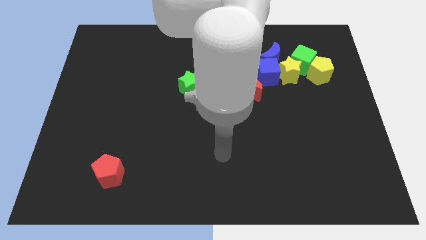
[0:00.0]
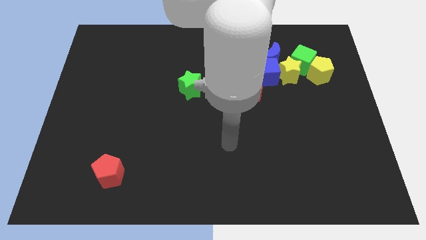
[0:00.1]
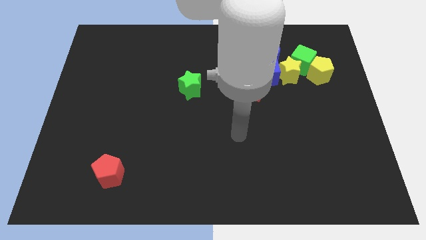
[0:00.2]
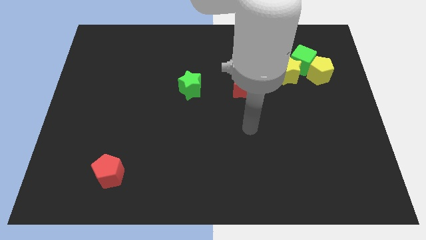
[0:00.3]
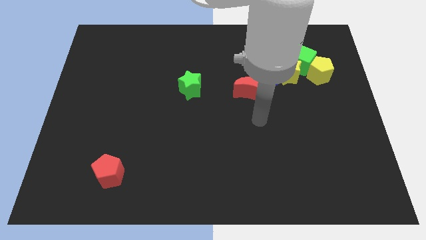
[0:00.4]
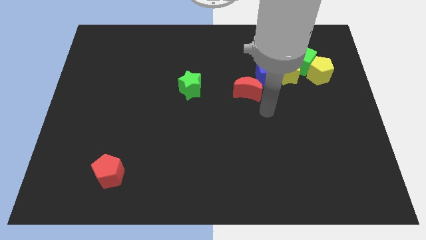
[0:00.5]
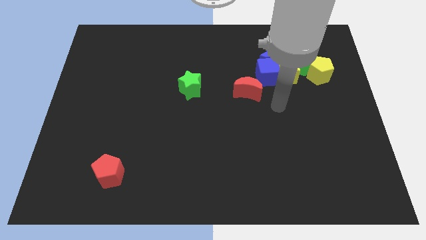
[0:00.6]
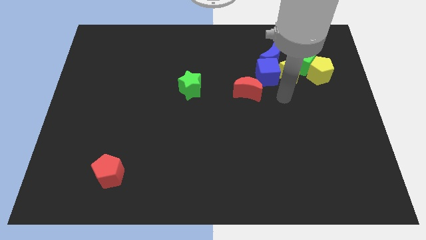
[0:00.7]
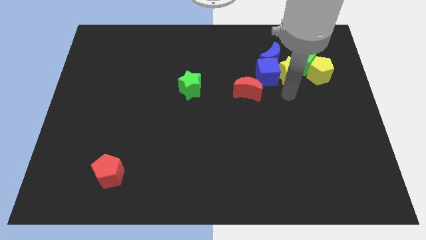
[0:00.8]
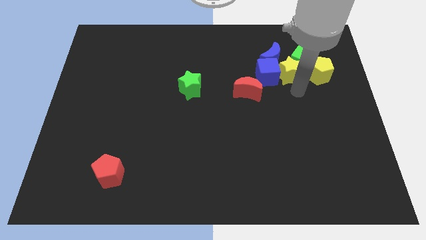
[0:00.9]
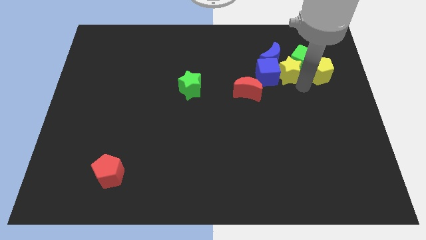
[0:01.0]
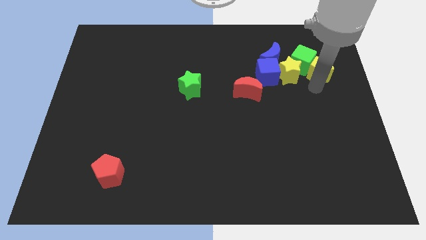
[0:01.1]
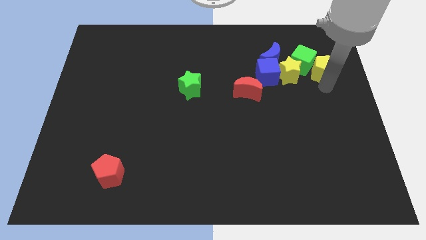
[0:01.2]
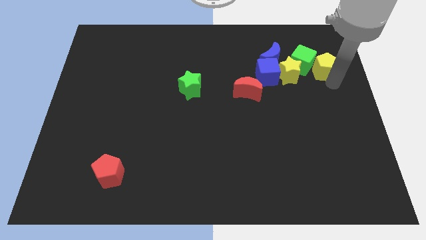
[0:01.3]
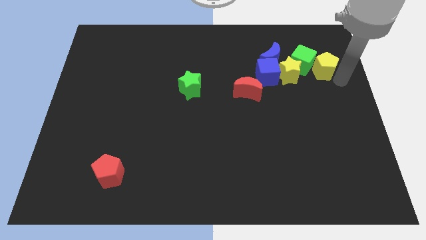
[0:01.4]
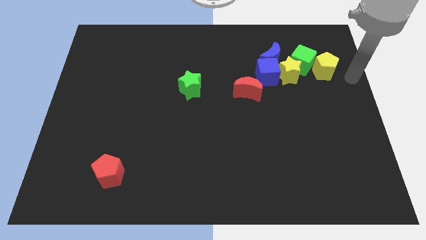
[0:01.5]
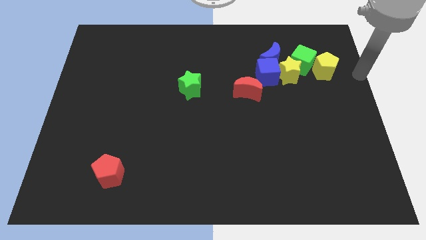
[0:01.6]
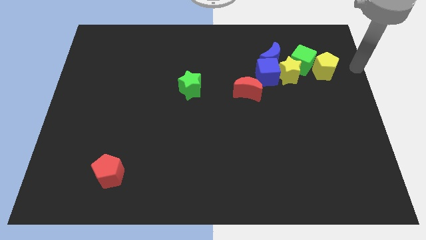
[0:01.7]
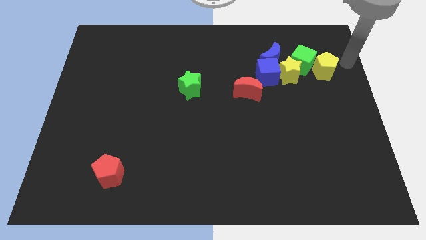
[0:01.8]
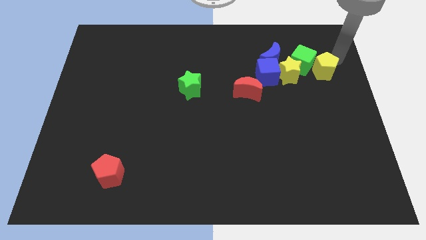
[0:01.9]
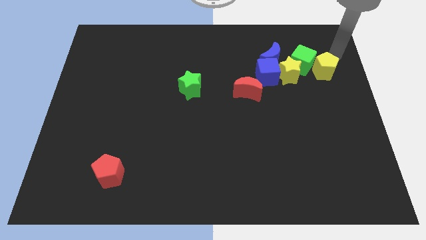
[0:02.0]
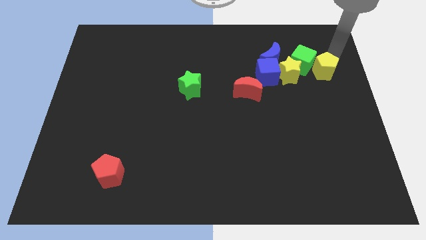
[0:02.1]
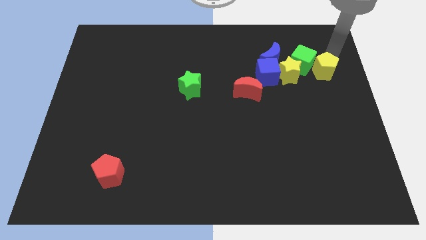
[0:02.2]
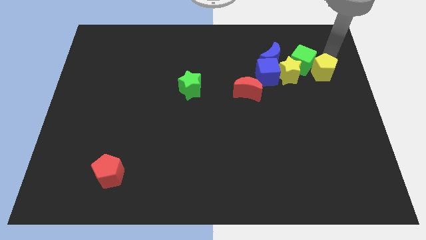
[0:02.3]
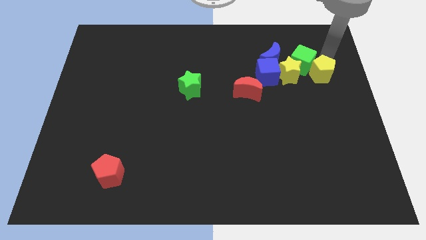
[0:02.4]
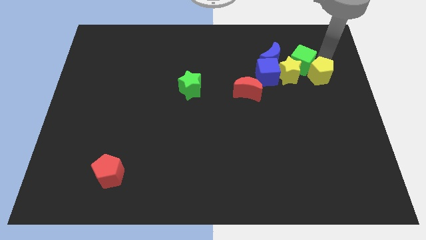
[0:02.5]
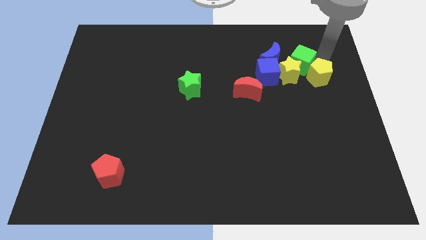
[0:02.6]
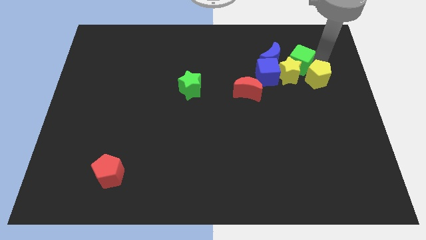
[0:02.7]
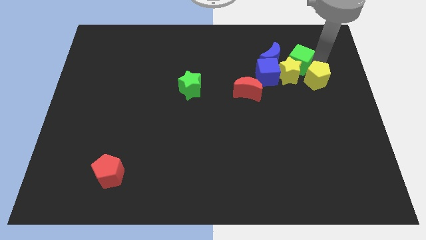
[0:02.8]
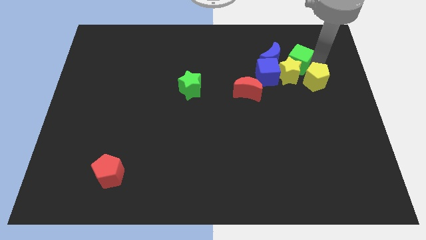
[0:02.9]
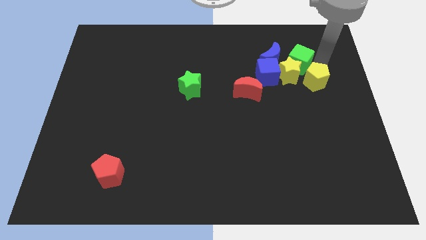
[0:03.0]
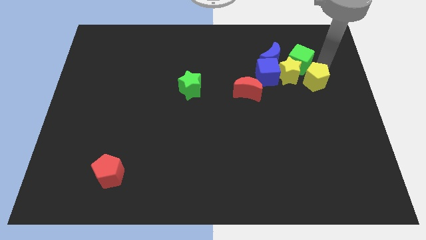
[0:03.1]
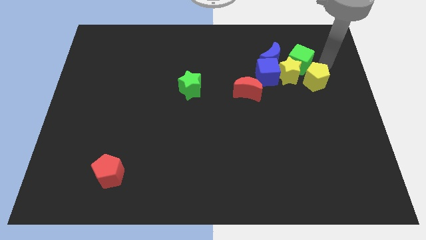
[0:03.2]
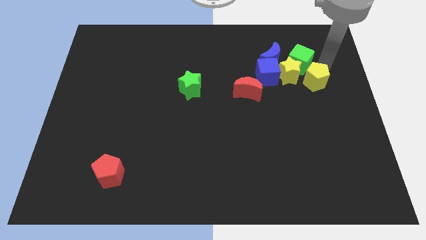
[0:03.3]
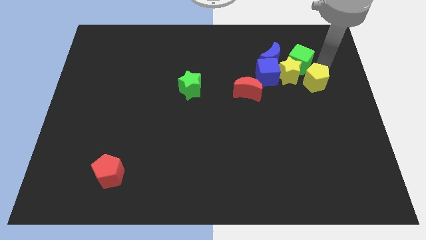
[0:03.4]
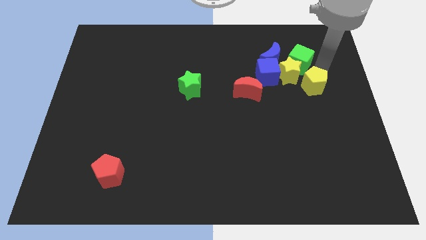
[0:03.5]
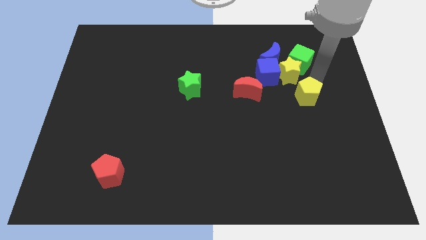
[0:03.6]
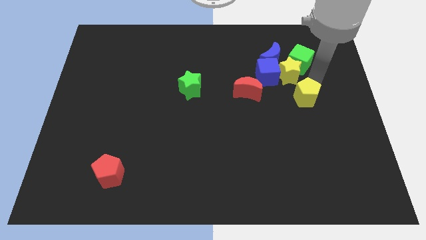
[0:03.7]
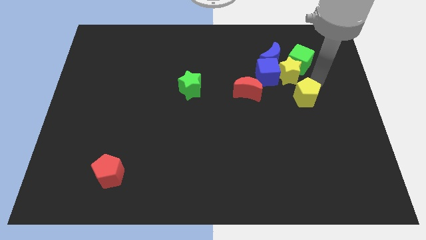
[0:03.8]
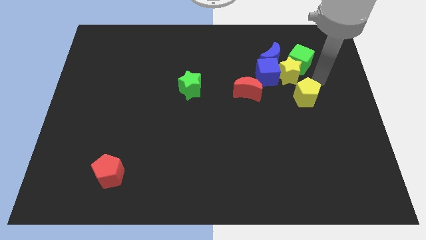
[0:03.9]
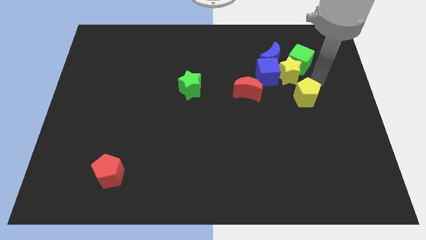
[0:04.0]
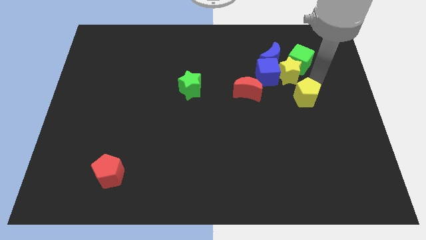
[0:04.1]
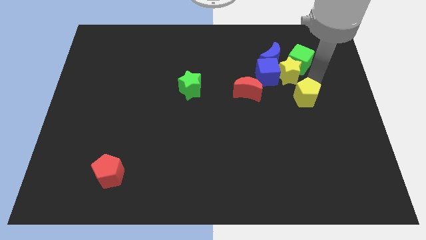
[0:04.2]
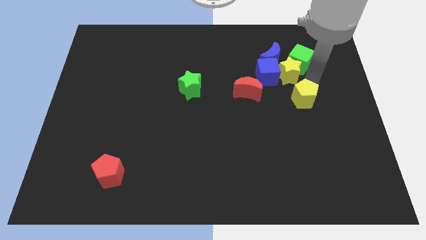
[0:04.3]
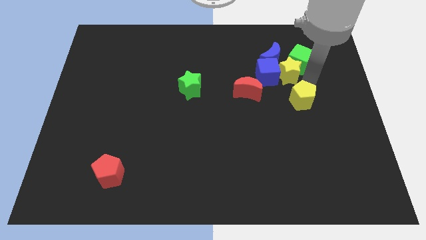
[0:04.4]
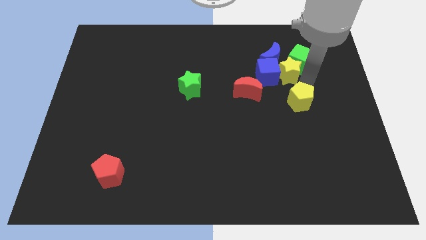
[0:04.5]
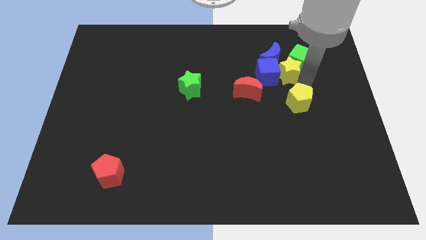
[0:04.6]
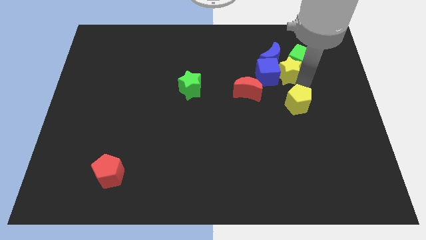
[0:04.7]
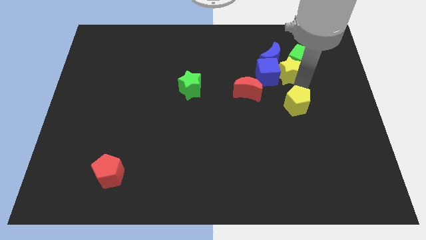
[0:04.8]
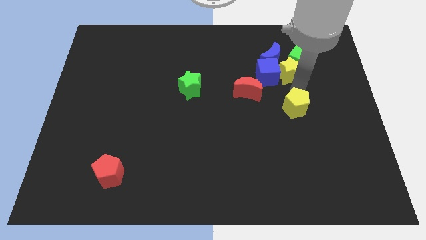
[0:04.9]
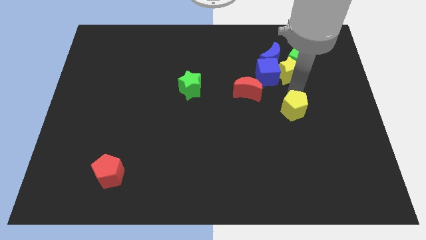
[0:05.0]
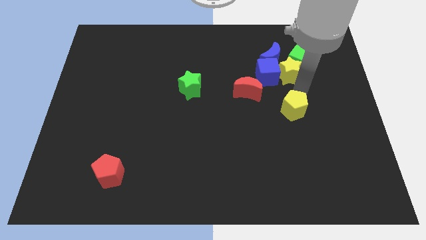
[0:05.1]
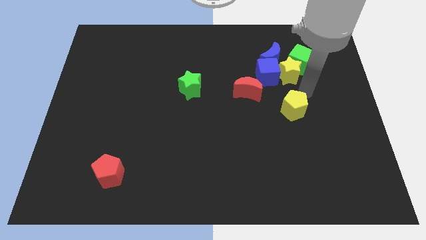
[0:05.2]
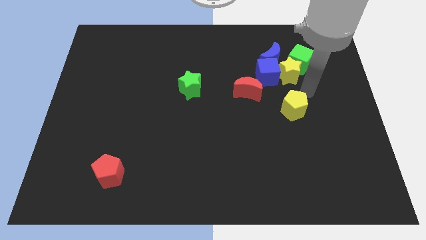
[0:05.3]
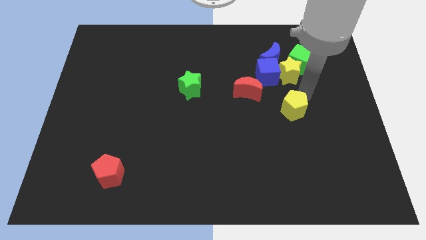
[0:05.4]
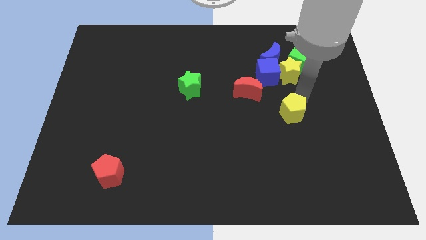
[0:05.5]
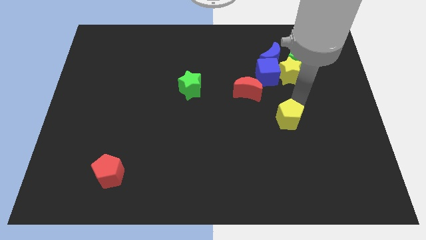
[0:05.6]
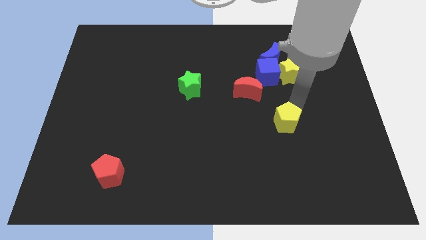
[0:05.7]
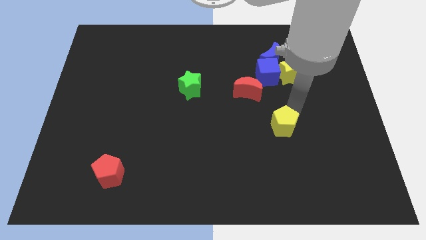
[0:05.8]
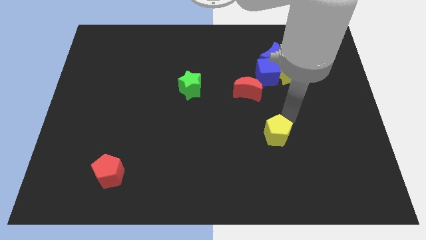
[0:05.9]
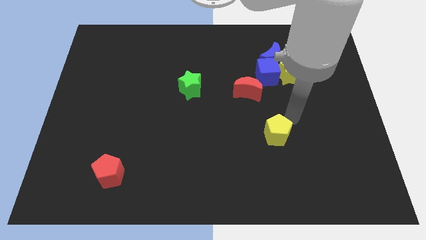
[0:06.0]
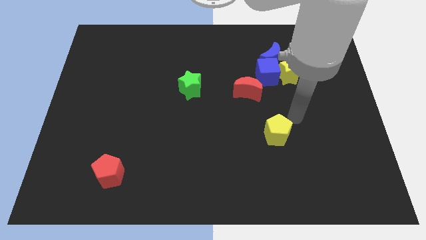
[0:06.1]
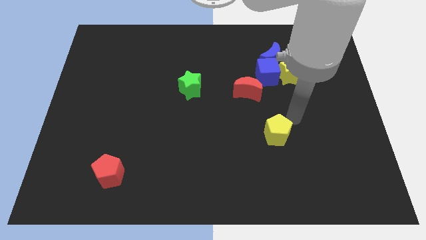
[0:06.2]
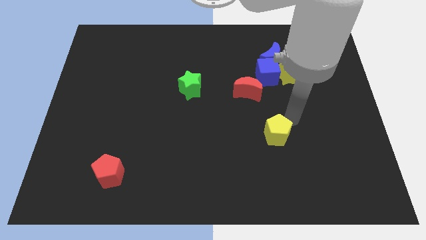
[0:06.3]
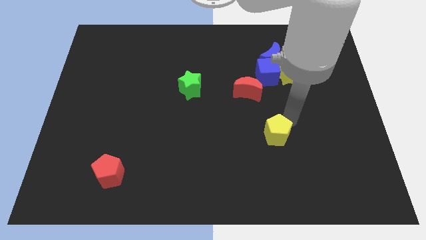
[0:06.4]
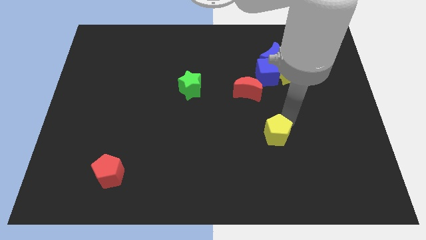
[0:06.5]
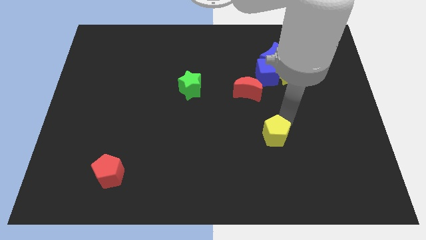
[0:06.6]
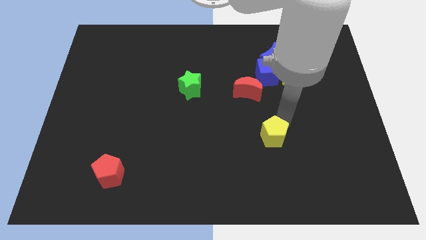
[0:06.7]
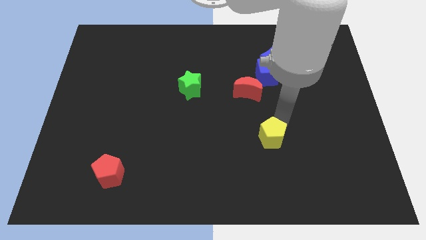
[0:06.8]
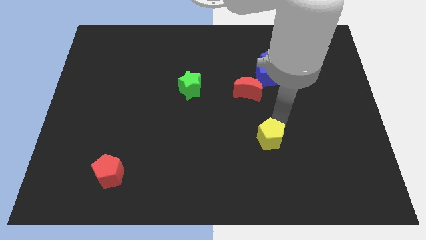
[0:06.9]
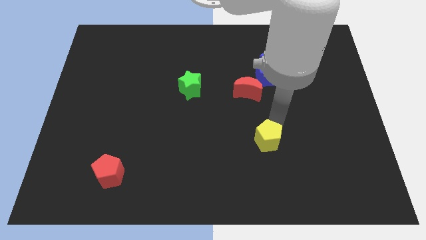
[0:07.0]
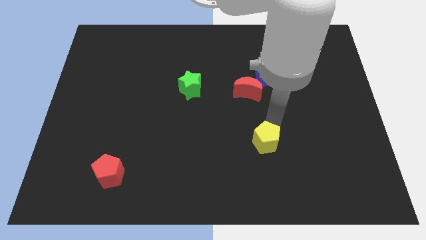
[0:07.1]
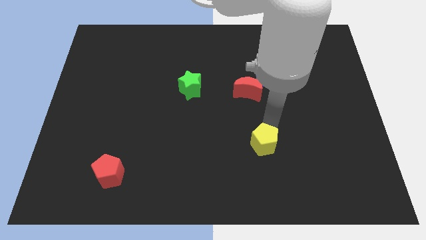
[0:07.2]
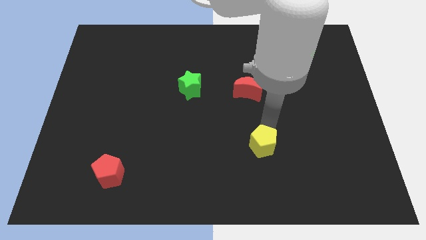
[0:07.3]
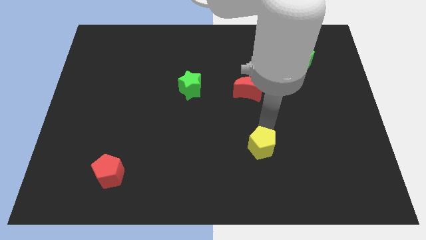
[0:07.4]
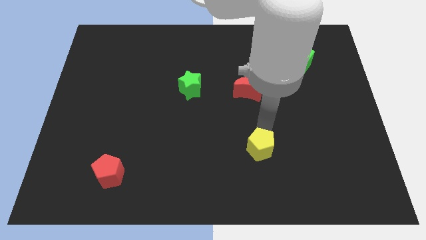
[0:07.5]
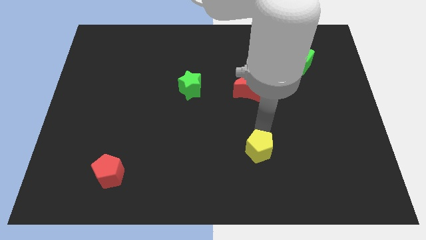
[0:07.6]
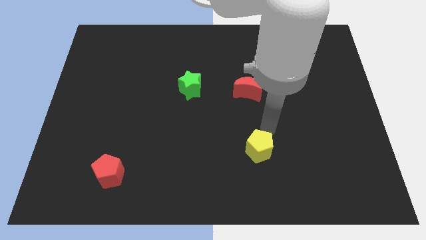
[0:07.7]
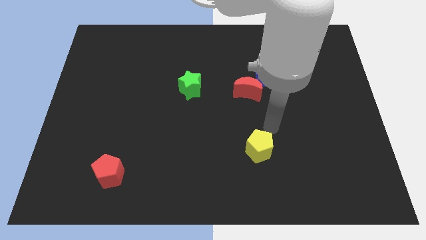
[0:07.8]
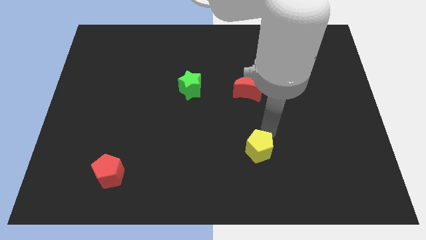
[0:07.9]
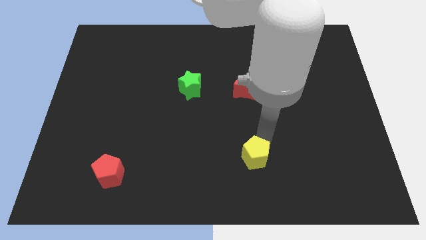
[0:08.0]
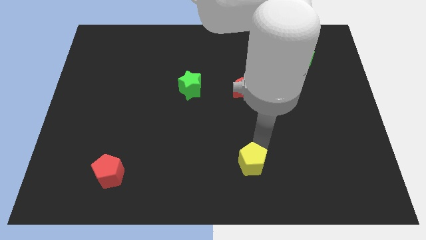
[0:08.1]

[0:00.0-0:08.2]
push the yellow pentagon to the bottom
